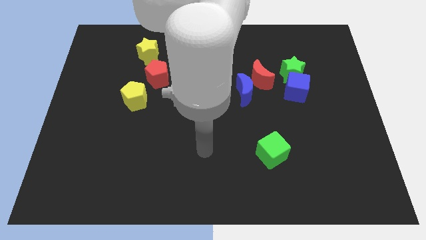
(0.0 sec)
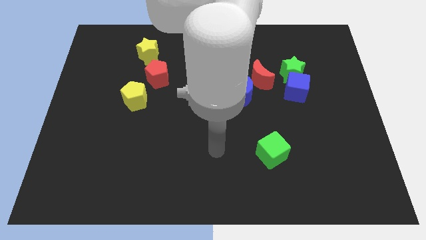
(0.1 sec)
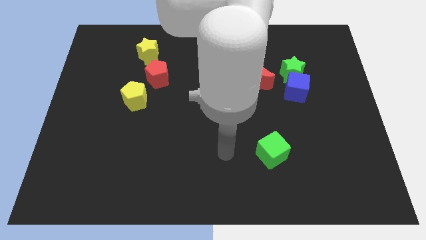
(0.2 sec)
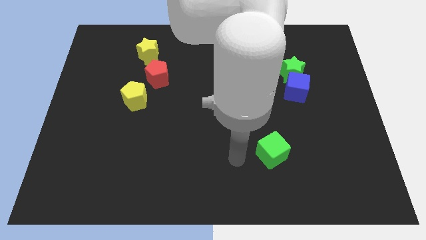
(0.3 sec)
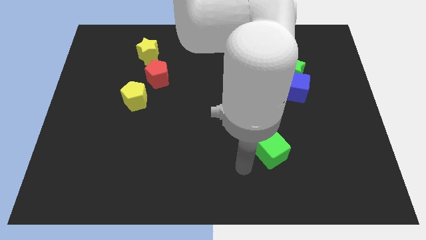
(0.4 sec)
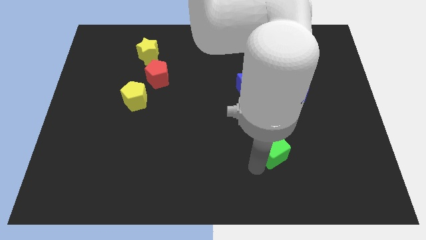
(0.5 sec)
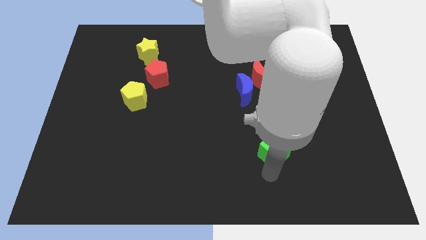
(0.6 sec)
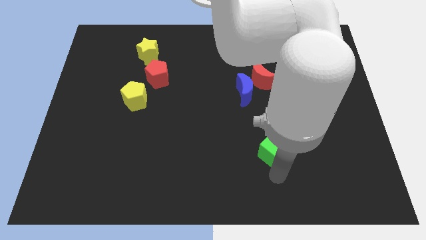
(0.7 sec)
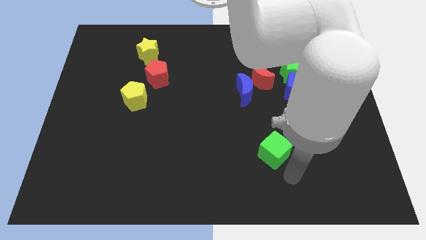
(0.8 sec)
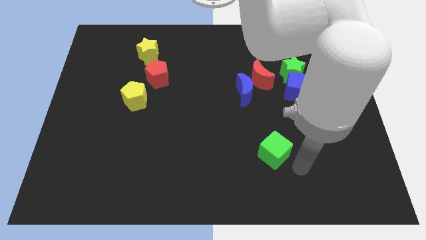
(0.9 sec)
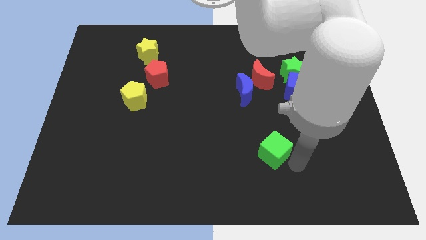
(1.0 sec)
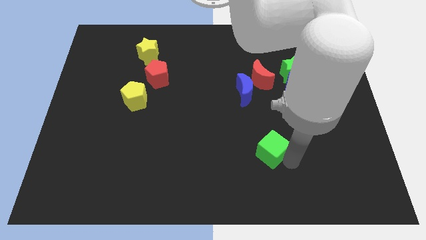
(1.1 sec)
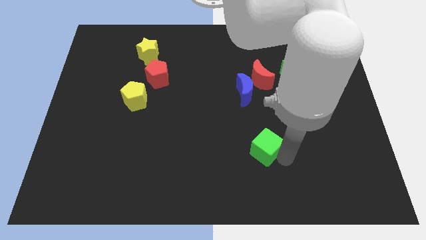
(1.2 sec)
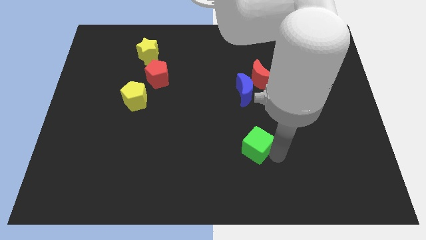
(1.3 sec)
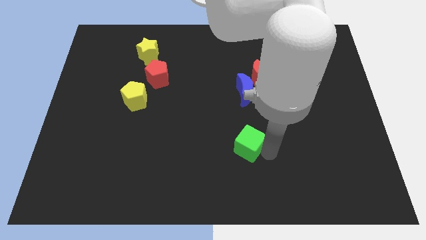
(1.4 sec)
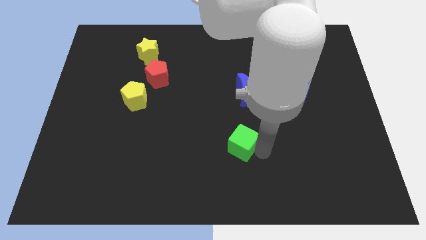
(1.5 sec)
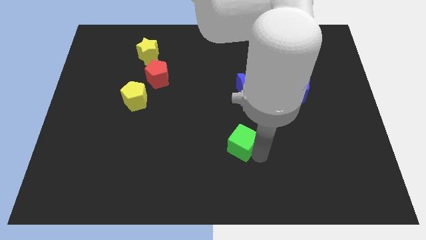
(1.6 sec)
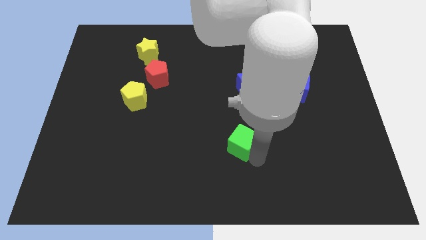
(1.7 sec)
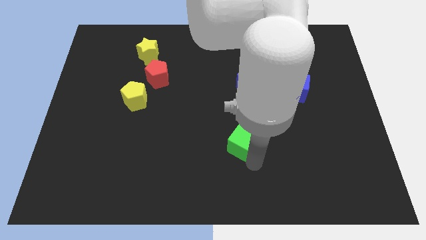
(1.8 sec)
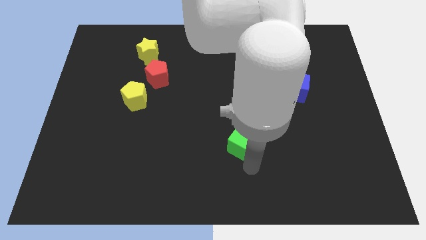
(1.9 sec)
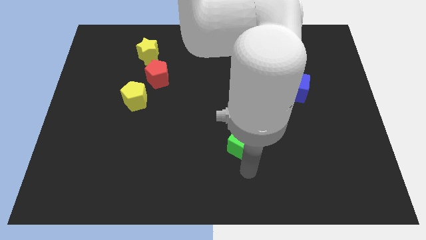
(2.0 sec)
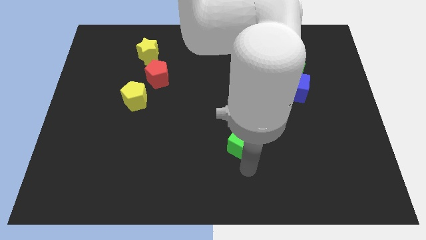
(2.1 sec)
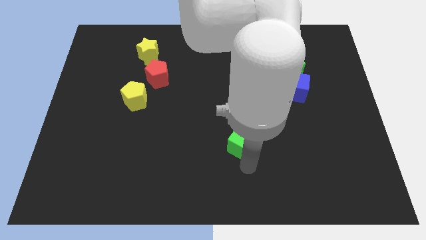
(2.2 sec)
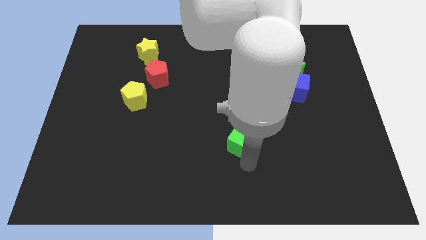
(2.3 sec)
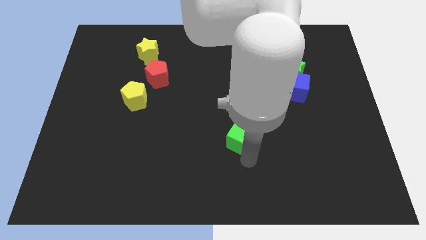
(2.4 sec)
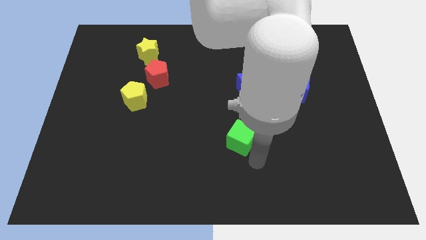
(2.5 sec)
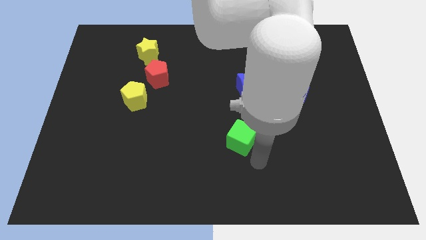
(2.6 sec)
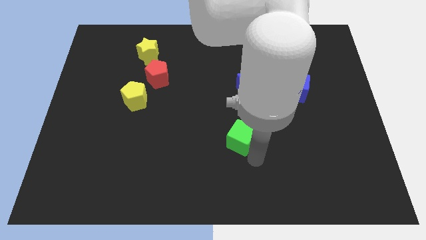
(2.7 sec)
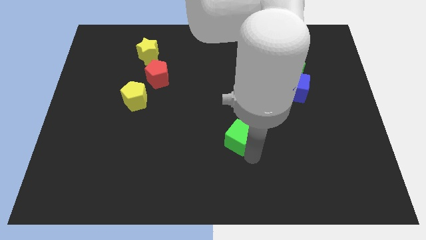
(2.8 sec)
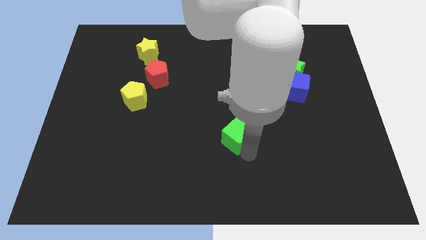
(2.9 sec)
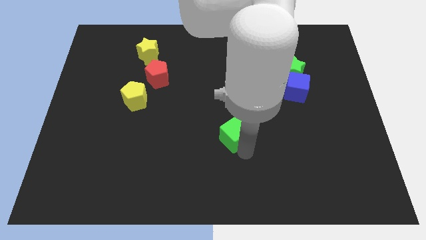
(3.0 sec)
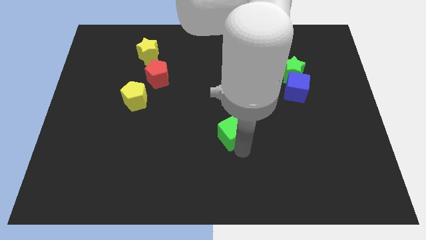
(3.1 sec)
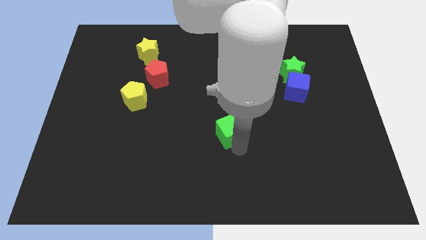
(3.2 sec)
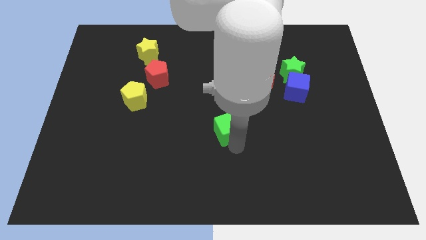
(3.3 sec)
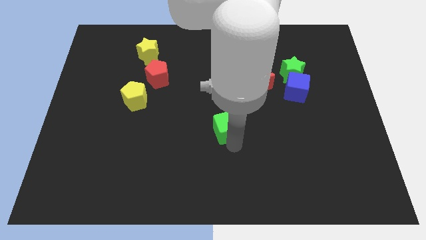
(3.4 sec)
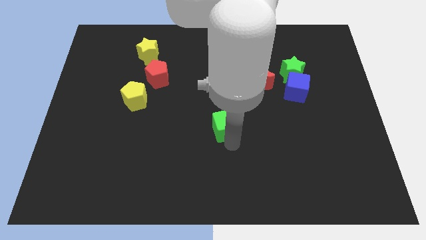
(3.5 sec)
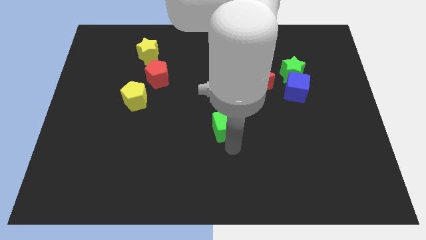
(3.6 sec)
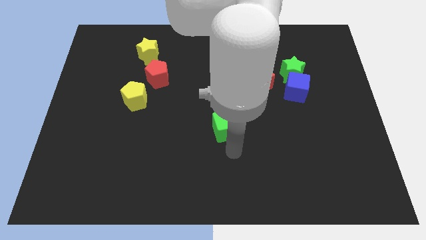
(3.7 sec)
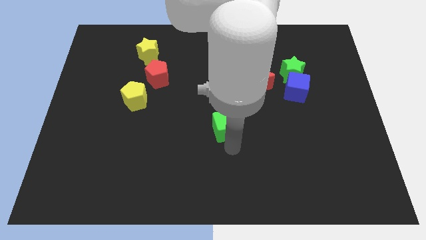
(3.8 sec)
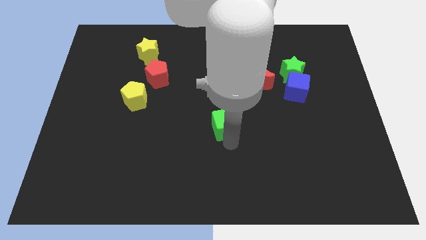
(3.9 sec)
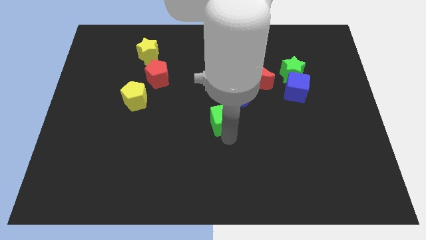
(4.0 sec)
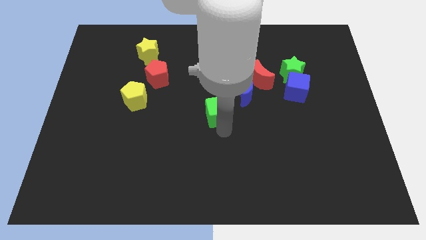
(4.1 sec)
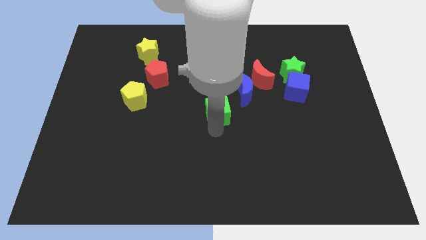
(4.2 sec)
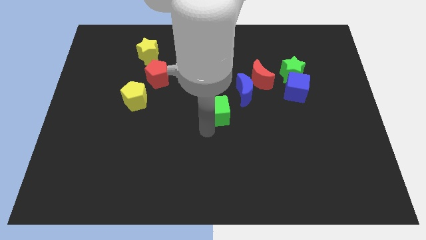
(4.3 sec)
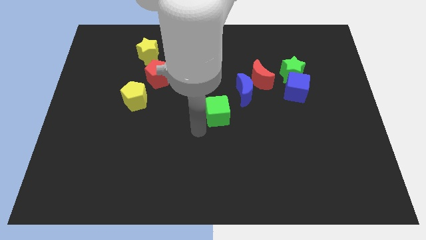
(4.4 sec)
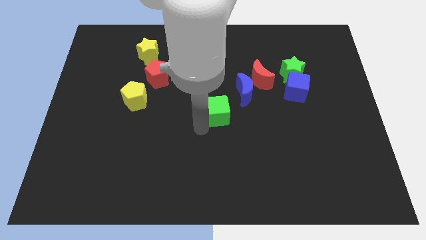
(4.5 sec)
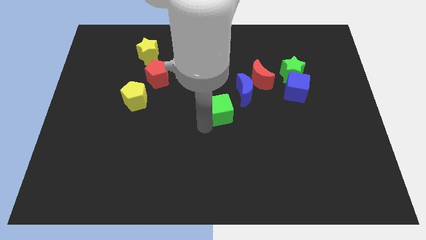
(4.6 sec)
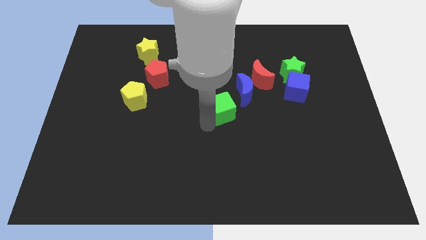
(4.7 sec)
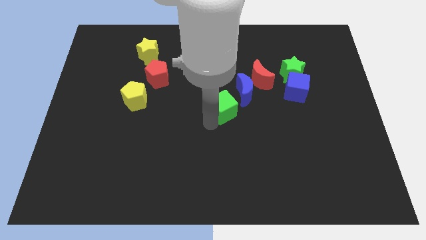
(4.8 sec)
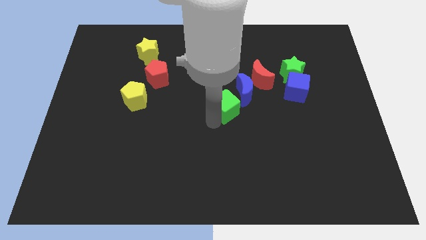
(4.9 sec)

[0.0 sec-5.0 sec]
slide the green cube to the bottom left of the red moon

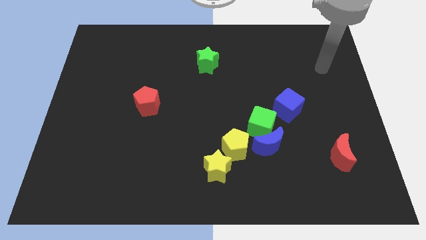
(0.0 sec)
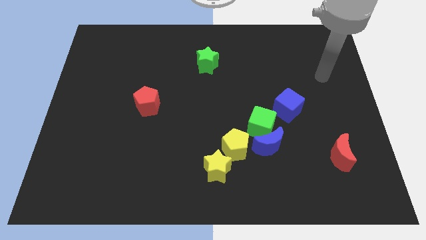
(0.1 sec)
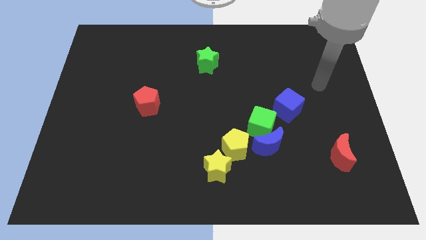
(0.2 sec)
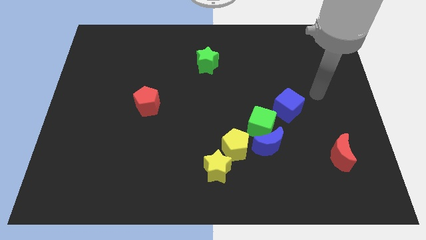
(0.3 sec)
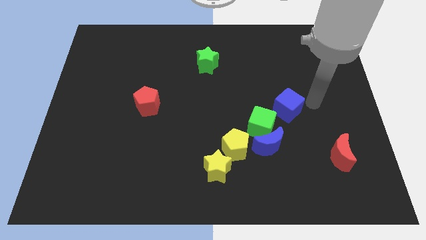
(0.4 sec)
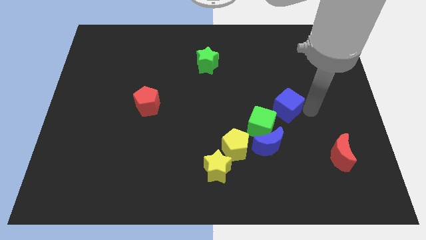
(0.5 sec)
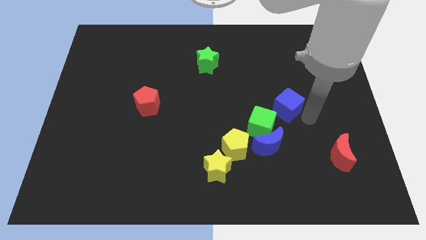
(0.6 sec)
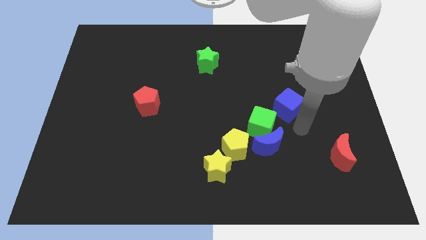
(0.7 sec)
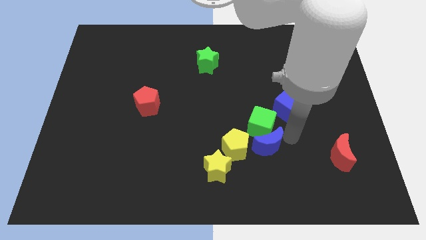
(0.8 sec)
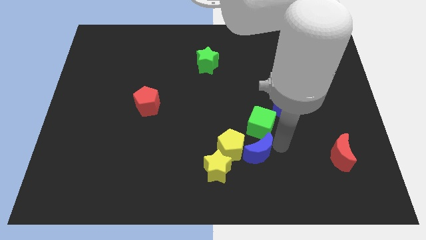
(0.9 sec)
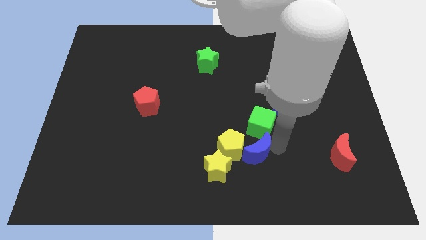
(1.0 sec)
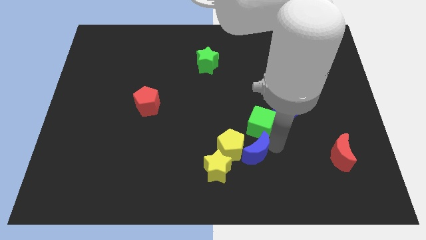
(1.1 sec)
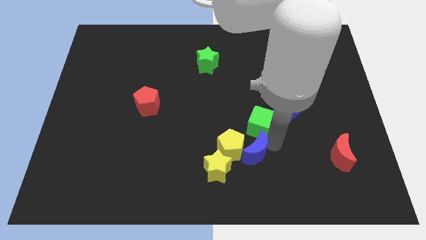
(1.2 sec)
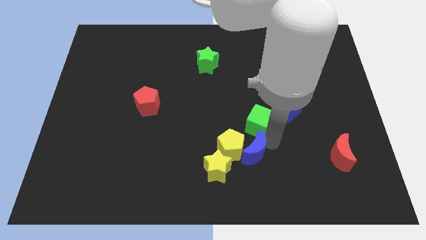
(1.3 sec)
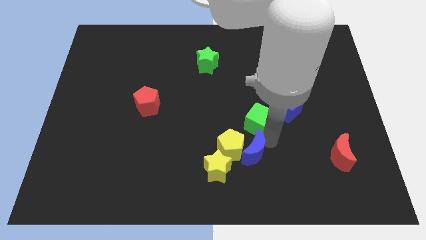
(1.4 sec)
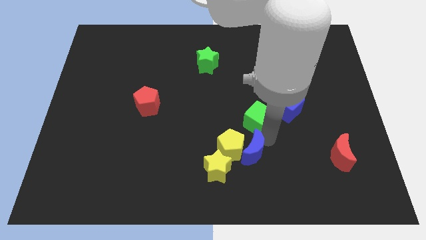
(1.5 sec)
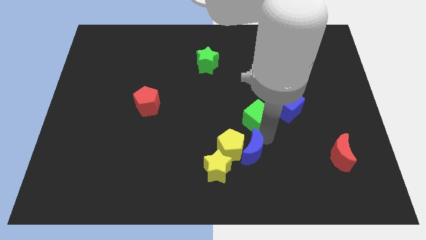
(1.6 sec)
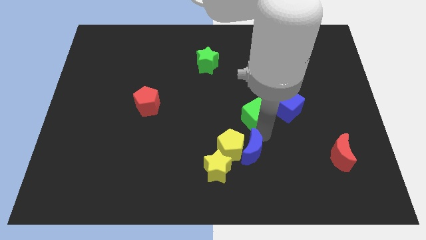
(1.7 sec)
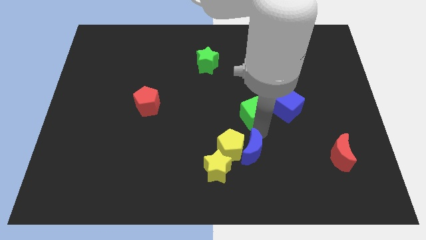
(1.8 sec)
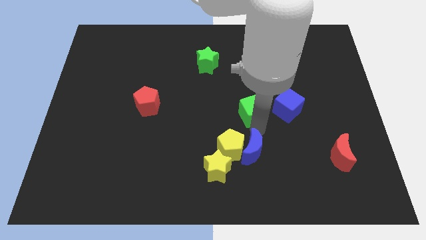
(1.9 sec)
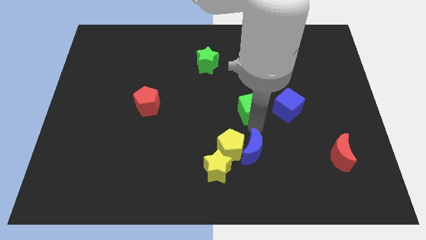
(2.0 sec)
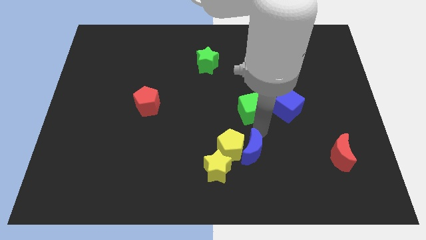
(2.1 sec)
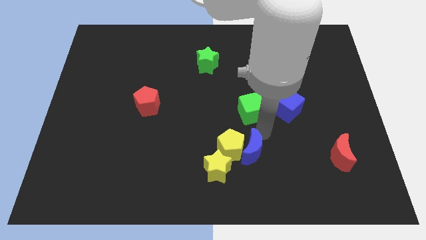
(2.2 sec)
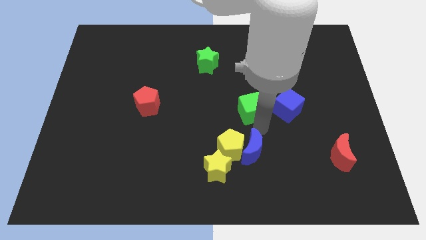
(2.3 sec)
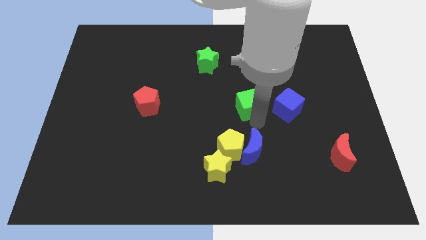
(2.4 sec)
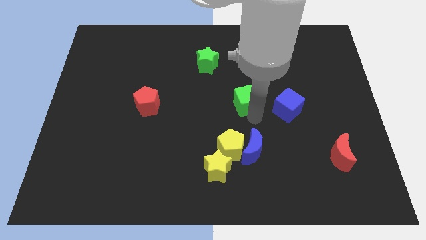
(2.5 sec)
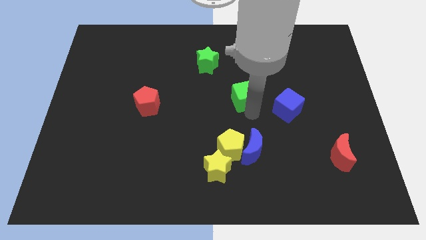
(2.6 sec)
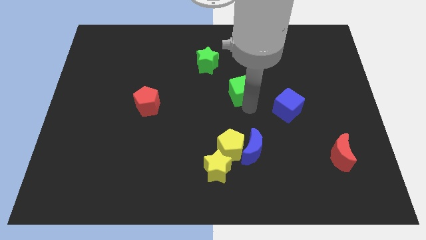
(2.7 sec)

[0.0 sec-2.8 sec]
move the green cube diagonally down and to the right of the green star

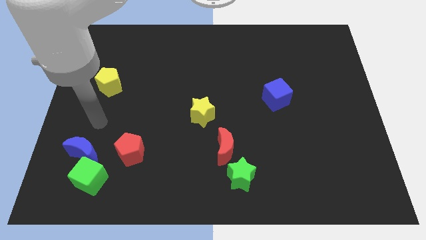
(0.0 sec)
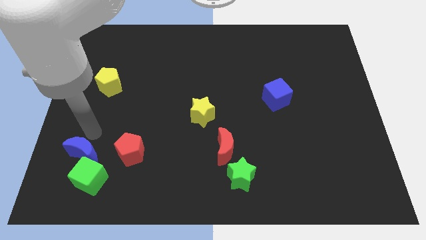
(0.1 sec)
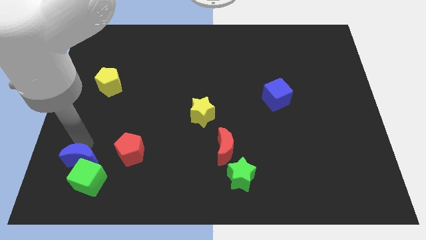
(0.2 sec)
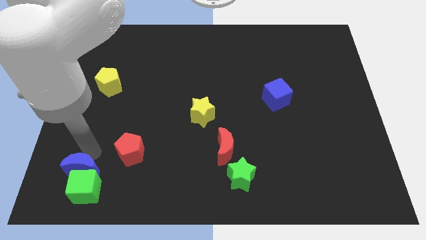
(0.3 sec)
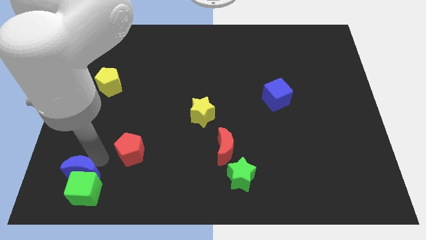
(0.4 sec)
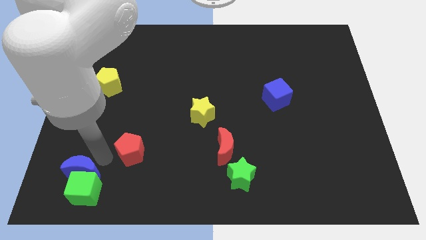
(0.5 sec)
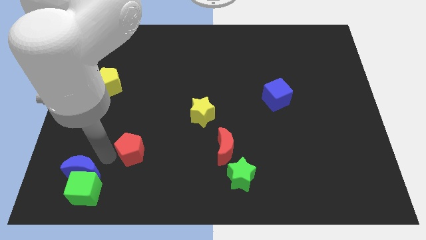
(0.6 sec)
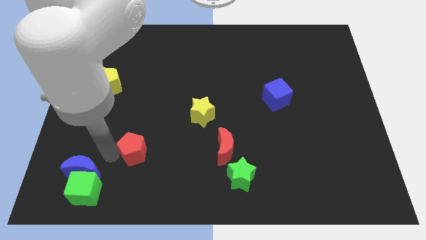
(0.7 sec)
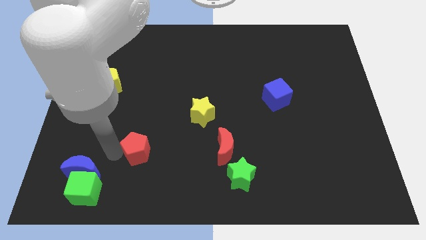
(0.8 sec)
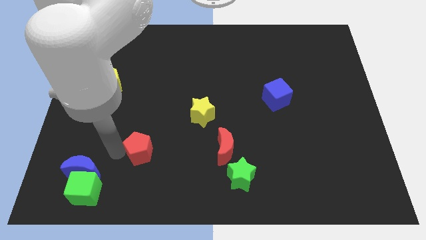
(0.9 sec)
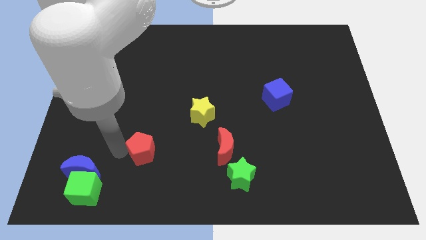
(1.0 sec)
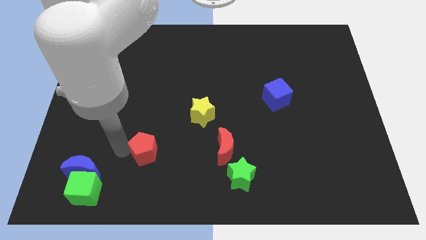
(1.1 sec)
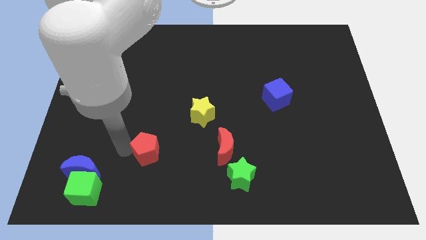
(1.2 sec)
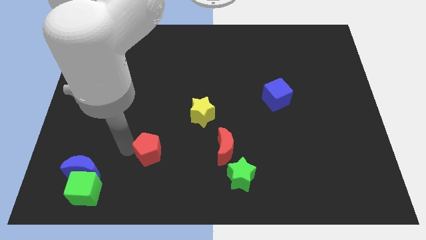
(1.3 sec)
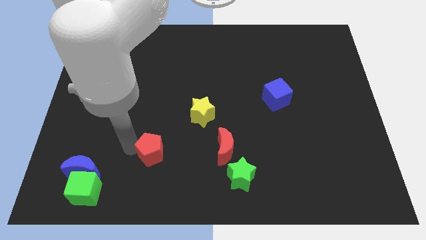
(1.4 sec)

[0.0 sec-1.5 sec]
put the red pentagon to the left of the red moon
